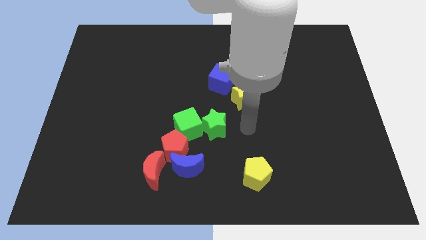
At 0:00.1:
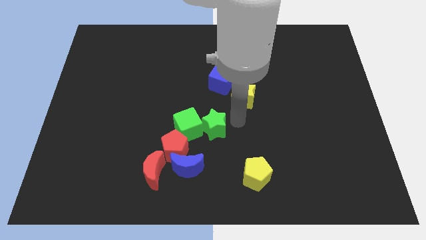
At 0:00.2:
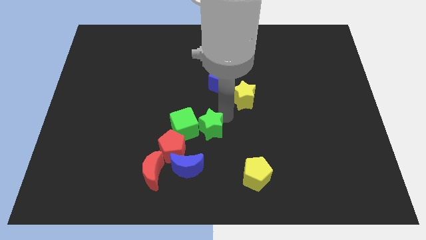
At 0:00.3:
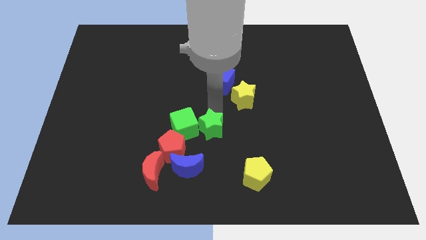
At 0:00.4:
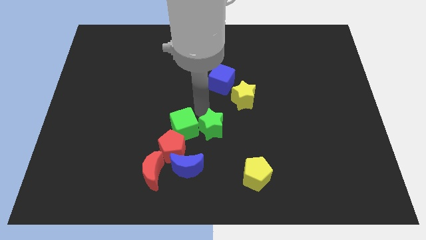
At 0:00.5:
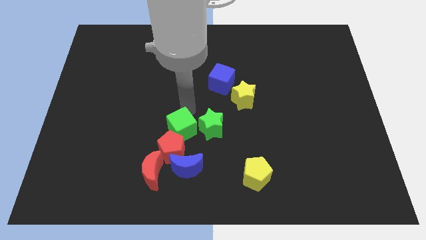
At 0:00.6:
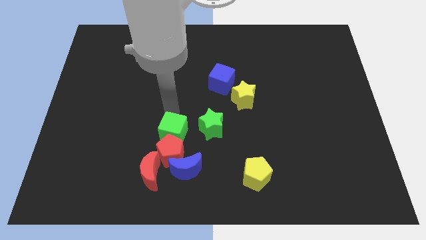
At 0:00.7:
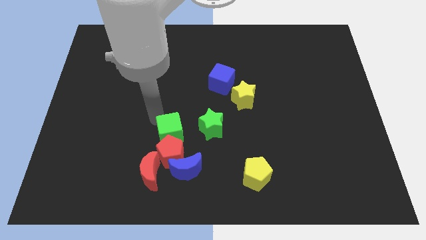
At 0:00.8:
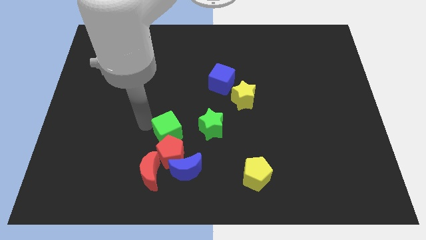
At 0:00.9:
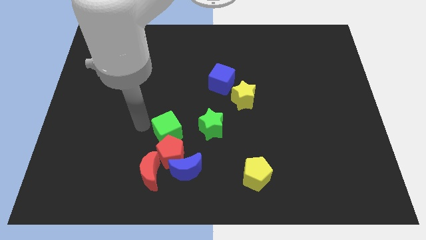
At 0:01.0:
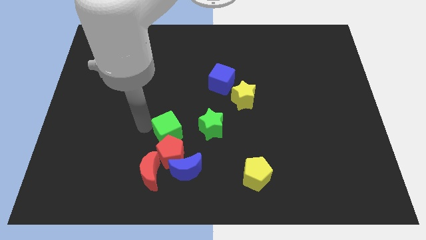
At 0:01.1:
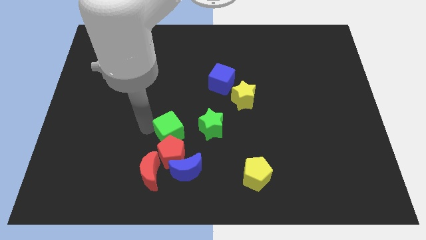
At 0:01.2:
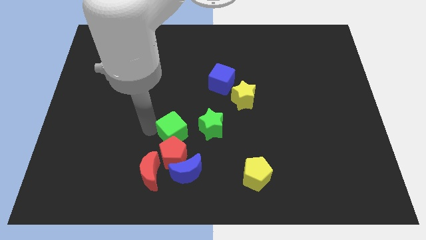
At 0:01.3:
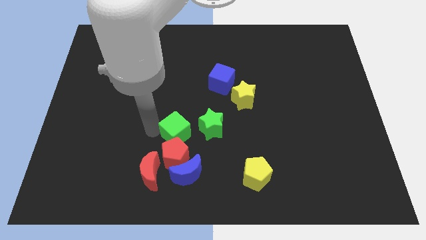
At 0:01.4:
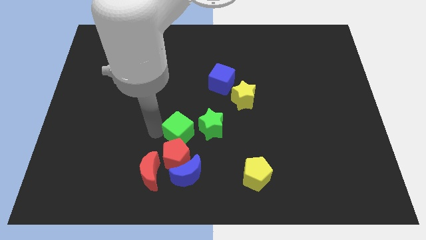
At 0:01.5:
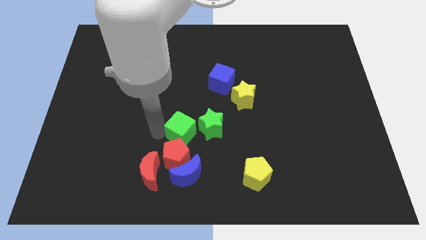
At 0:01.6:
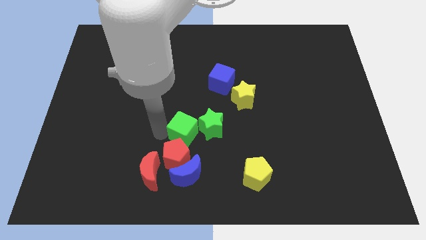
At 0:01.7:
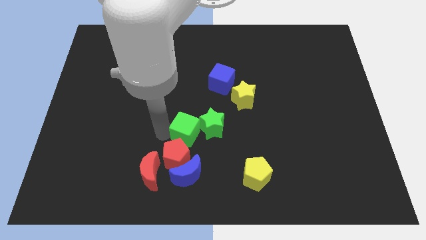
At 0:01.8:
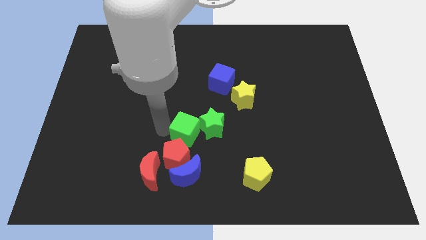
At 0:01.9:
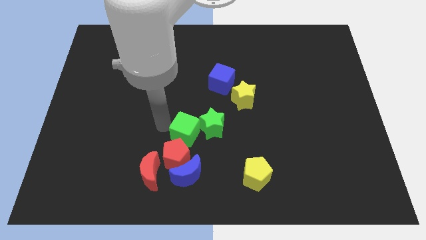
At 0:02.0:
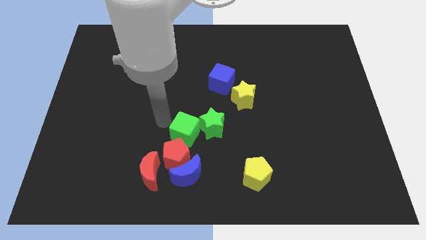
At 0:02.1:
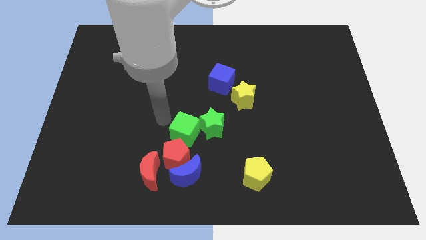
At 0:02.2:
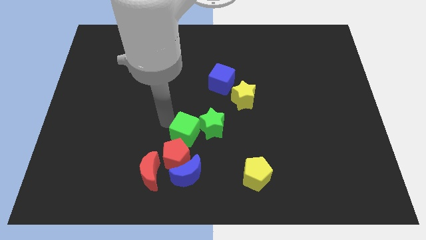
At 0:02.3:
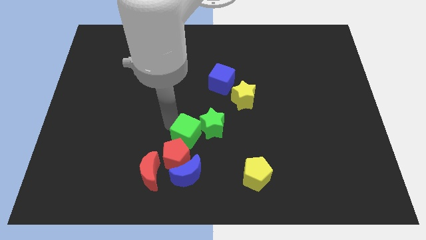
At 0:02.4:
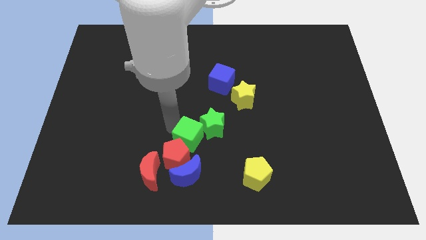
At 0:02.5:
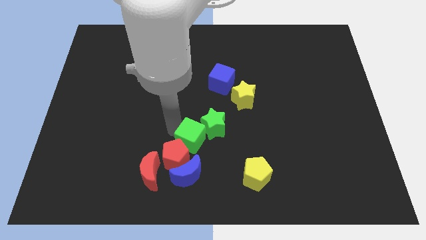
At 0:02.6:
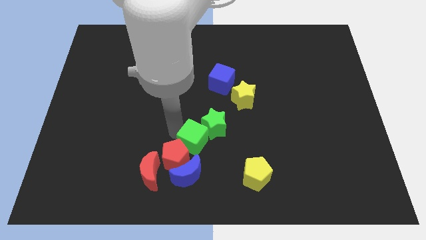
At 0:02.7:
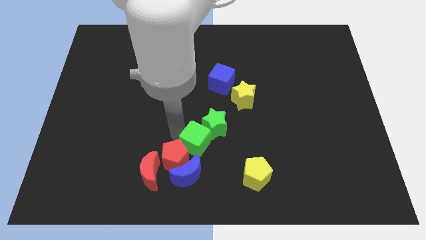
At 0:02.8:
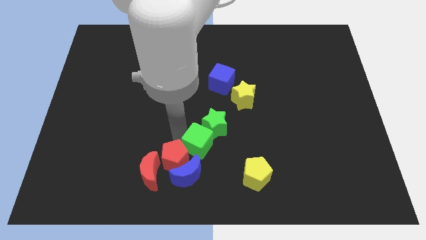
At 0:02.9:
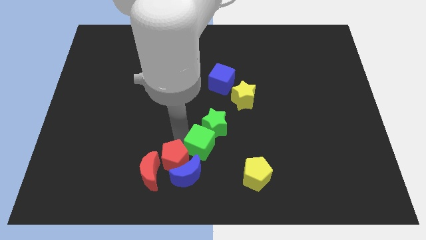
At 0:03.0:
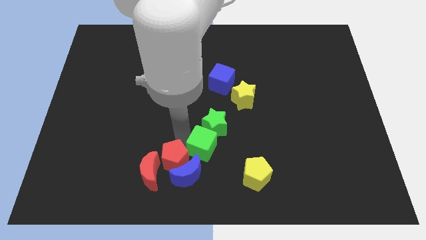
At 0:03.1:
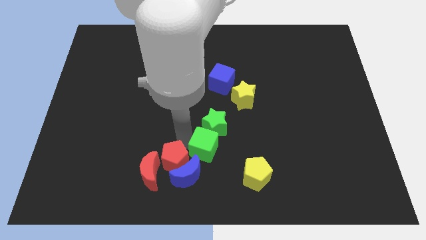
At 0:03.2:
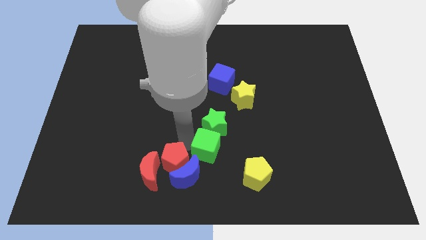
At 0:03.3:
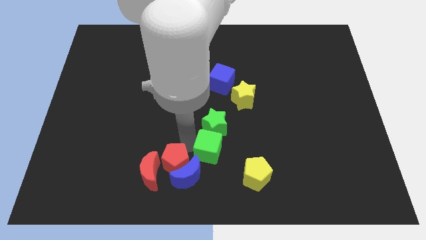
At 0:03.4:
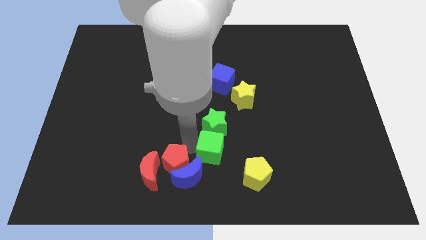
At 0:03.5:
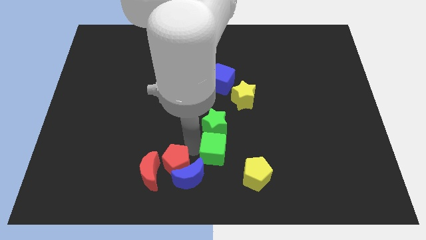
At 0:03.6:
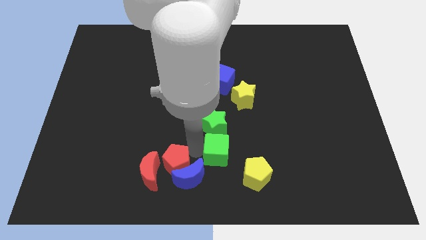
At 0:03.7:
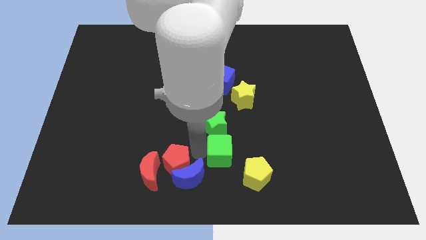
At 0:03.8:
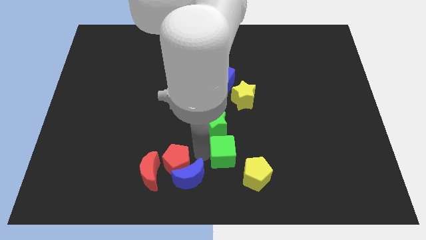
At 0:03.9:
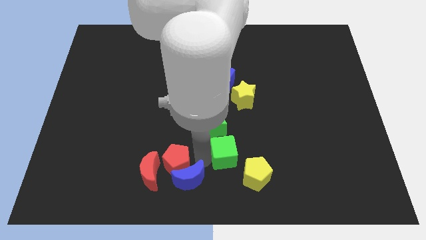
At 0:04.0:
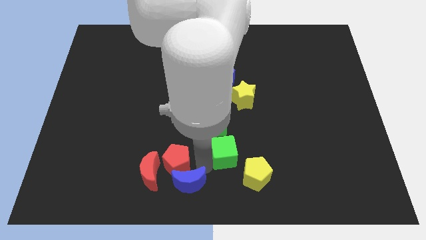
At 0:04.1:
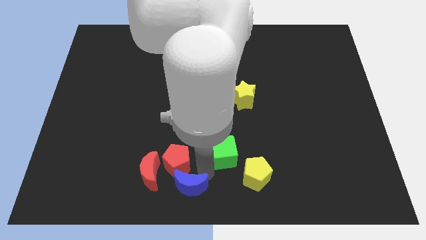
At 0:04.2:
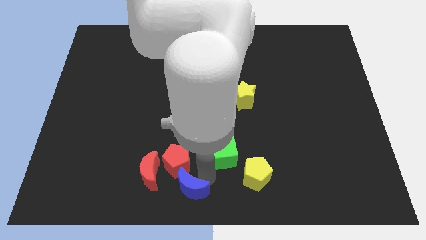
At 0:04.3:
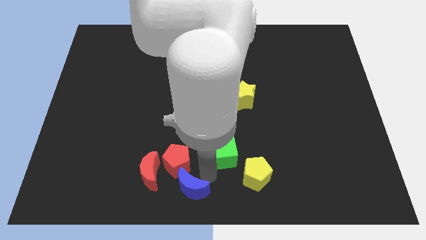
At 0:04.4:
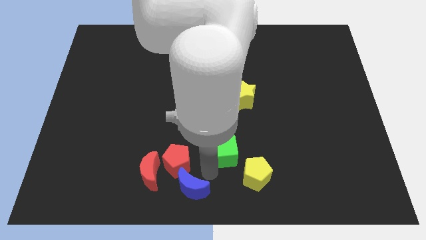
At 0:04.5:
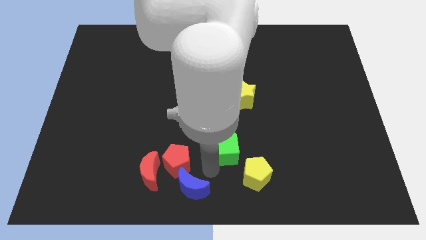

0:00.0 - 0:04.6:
slightly move the green cube to the right

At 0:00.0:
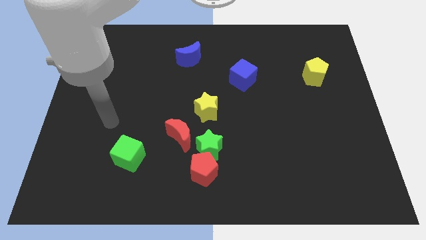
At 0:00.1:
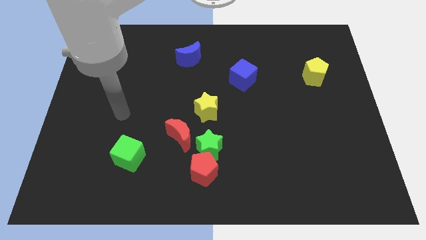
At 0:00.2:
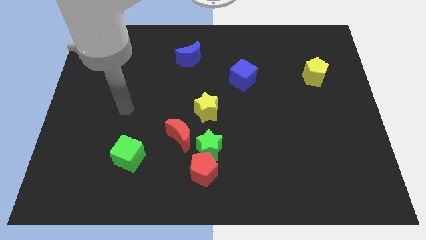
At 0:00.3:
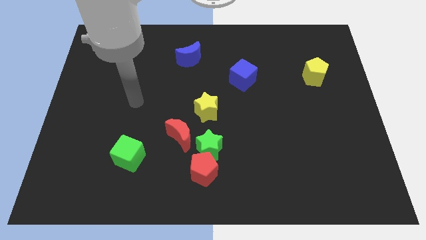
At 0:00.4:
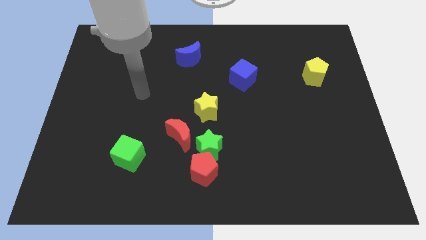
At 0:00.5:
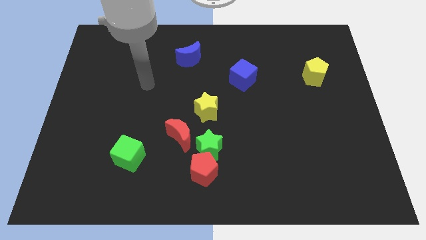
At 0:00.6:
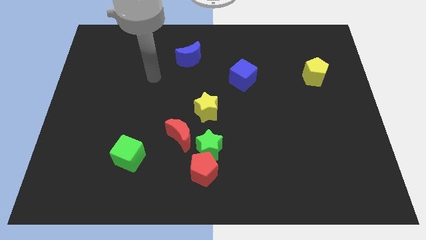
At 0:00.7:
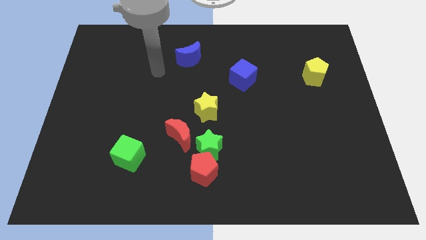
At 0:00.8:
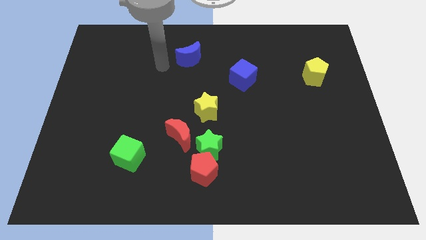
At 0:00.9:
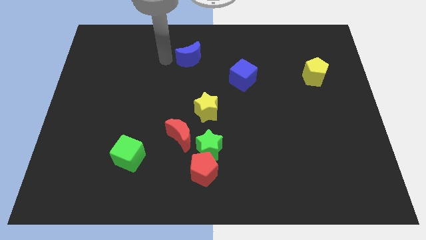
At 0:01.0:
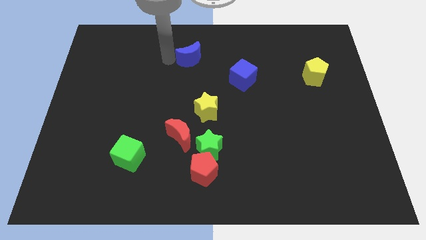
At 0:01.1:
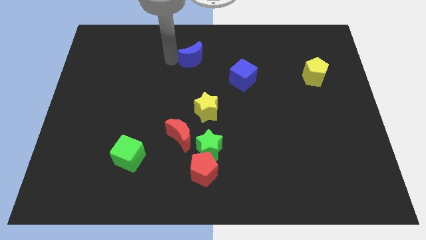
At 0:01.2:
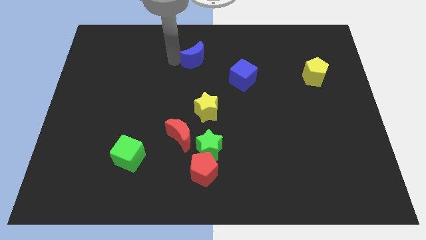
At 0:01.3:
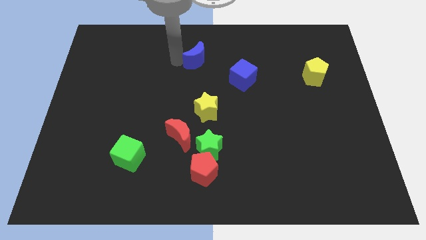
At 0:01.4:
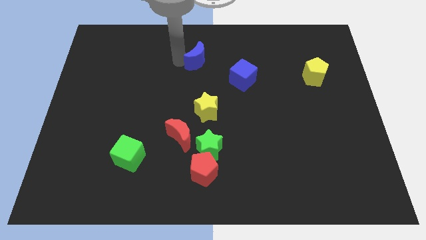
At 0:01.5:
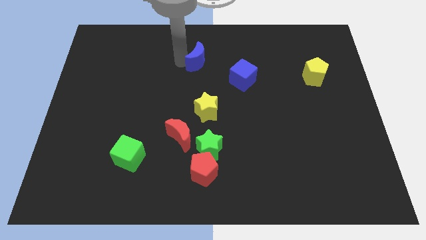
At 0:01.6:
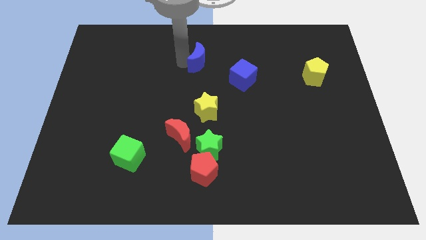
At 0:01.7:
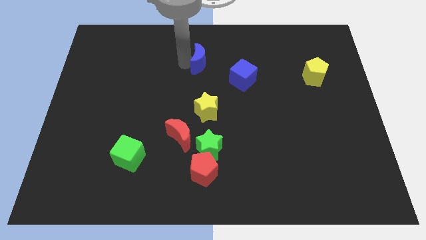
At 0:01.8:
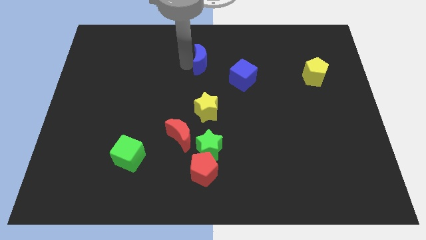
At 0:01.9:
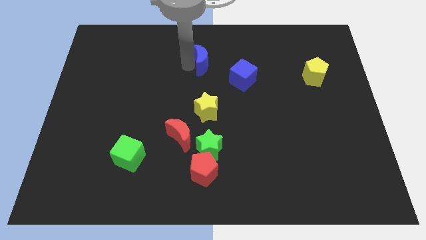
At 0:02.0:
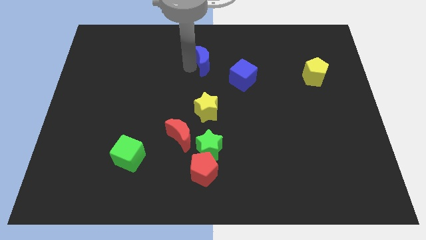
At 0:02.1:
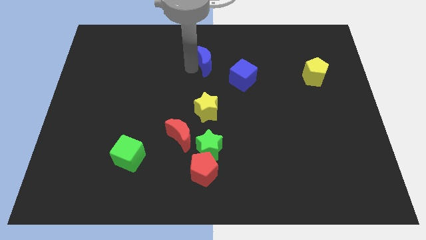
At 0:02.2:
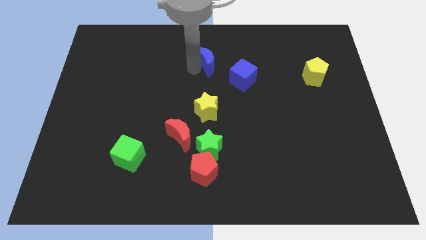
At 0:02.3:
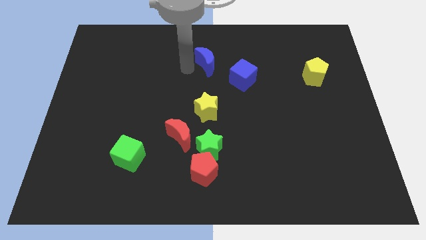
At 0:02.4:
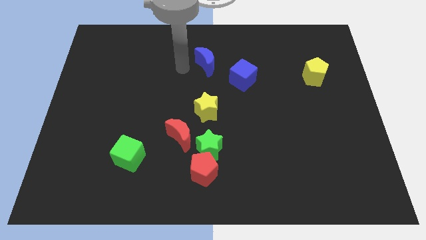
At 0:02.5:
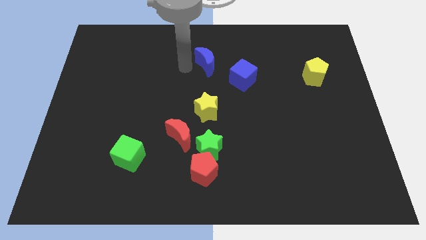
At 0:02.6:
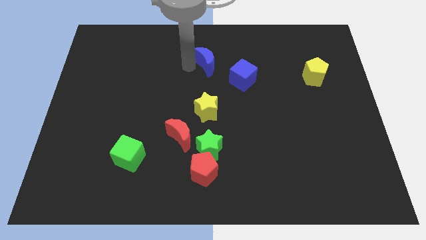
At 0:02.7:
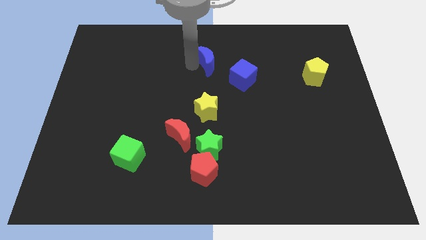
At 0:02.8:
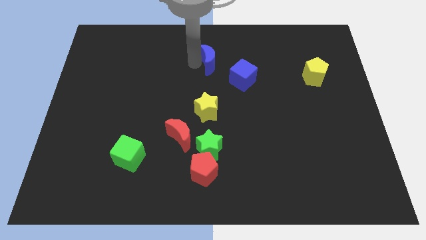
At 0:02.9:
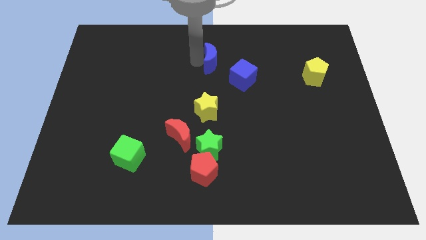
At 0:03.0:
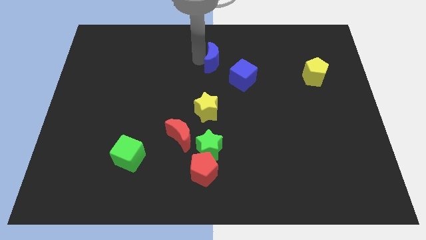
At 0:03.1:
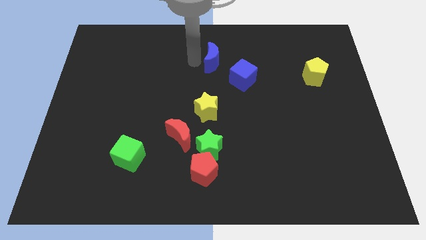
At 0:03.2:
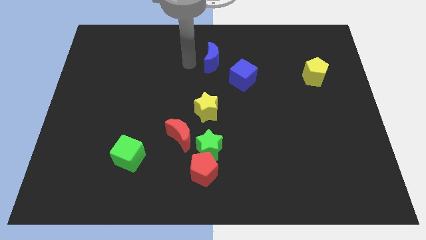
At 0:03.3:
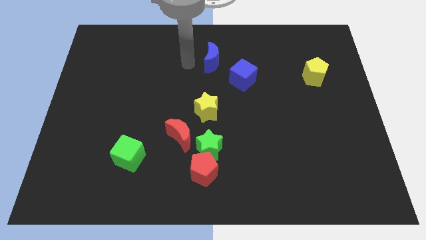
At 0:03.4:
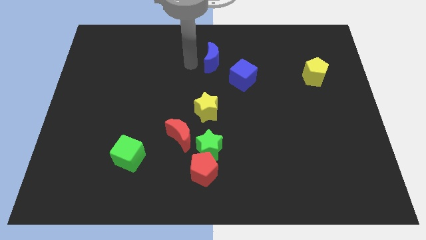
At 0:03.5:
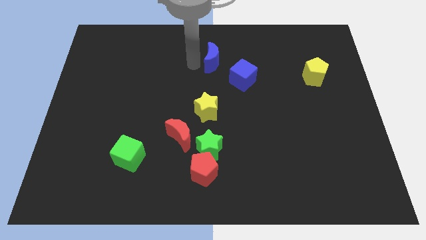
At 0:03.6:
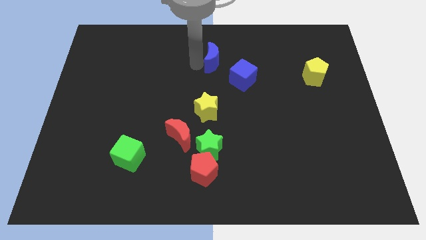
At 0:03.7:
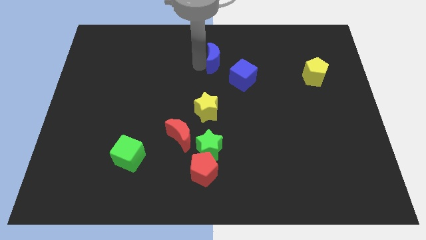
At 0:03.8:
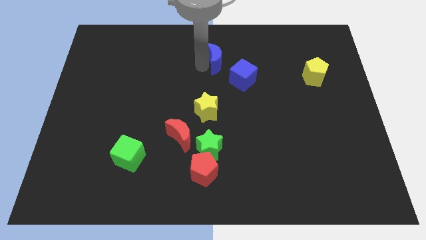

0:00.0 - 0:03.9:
slide the blue moon to the right a little bit
